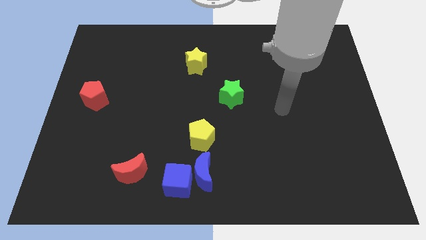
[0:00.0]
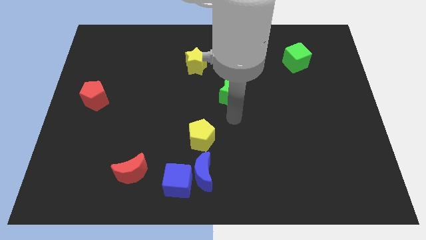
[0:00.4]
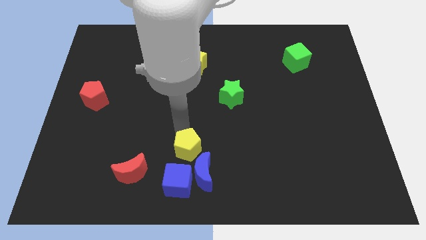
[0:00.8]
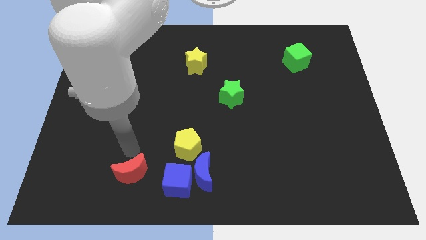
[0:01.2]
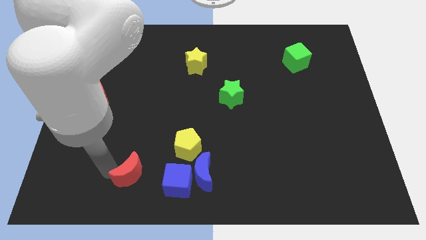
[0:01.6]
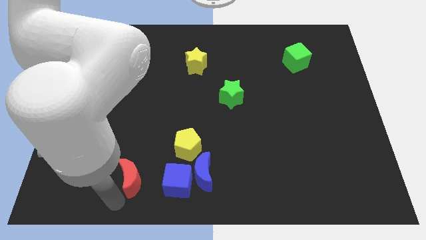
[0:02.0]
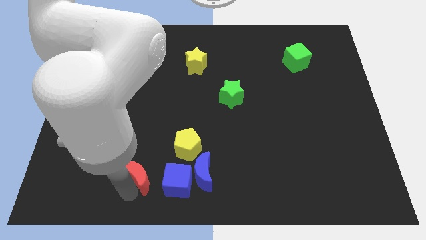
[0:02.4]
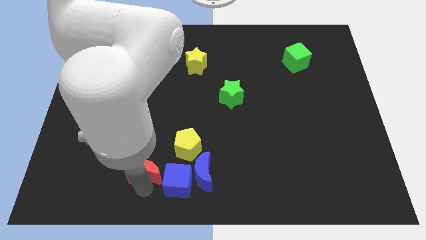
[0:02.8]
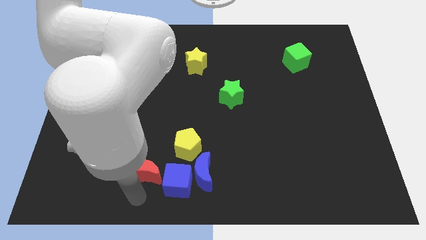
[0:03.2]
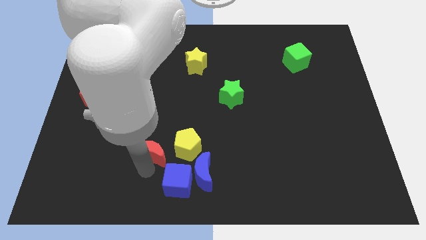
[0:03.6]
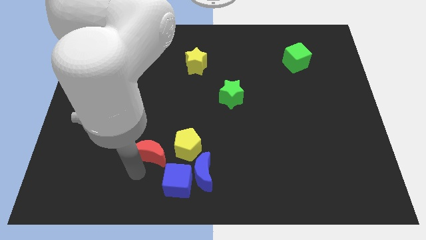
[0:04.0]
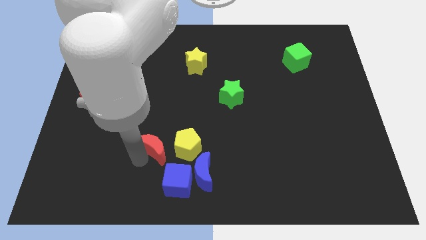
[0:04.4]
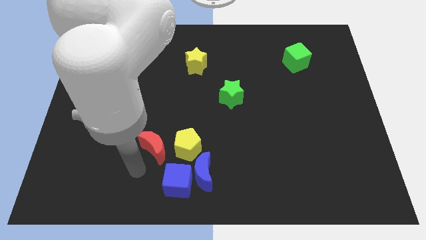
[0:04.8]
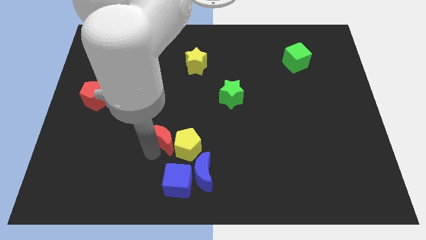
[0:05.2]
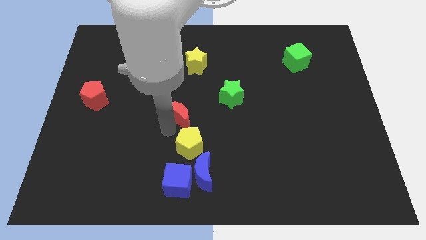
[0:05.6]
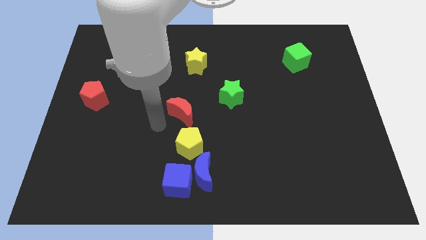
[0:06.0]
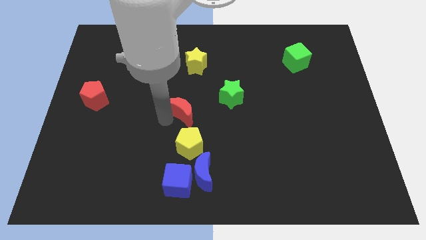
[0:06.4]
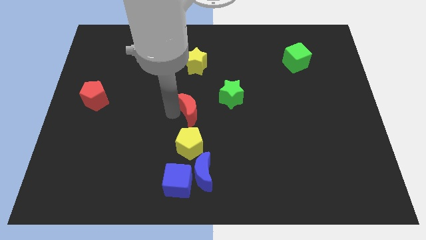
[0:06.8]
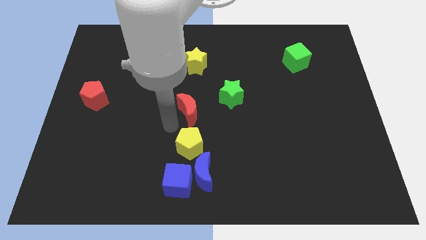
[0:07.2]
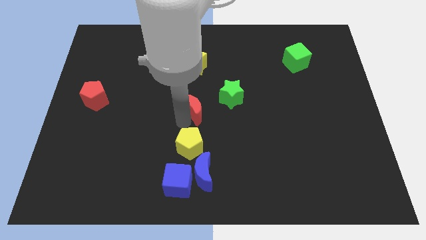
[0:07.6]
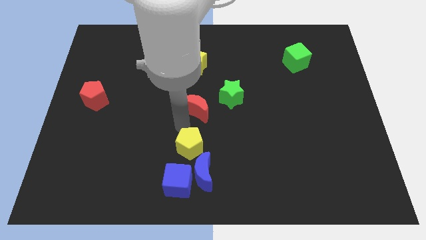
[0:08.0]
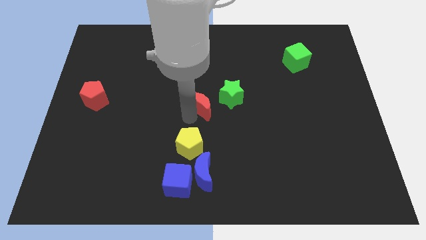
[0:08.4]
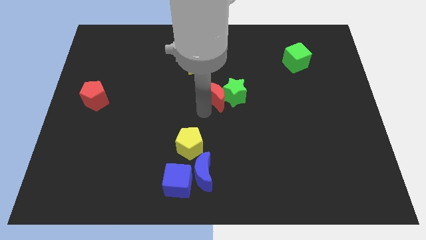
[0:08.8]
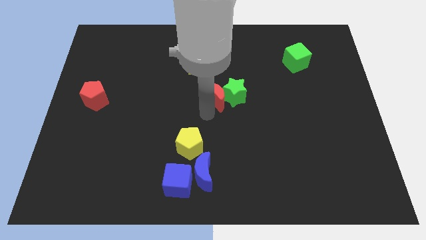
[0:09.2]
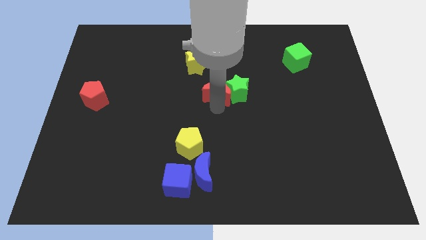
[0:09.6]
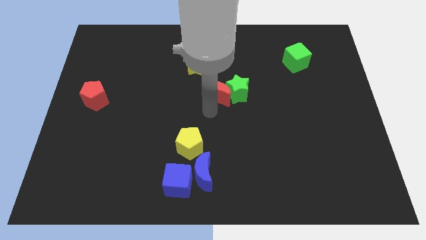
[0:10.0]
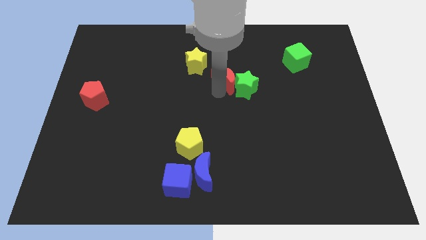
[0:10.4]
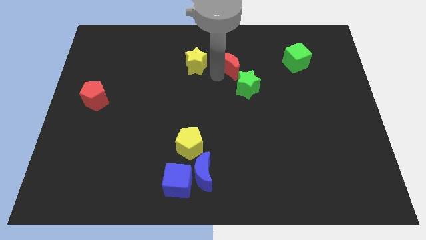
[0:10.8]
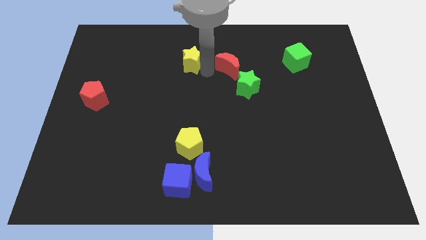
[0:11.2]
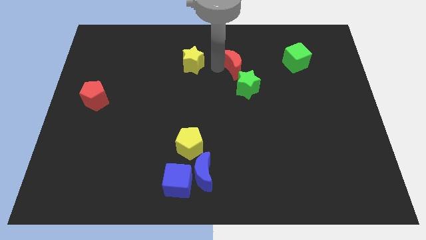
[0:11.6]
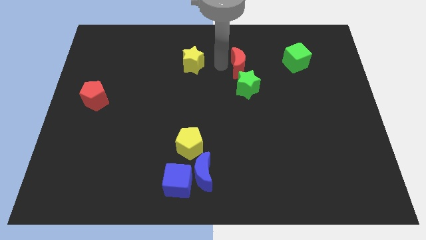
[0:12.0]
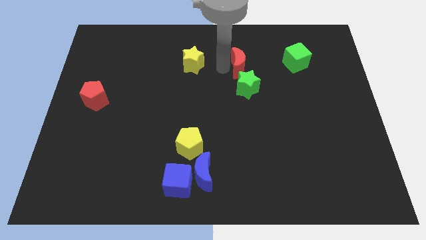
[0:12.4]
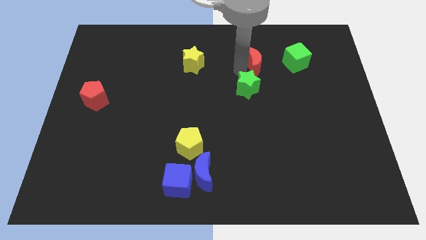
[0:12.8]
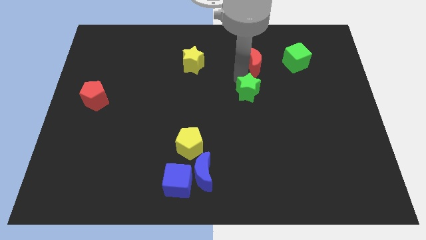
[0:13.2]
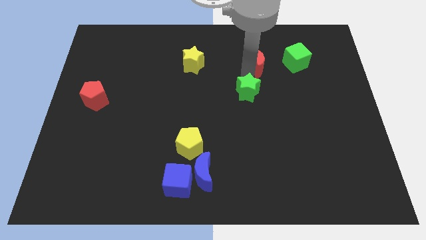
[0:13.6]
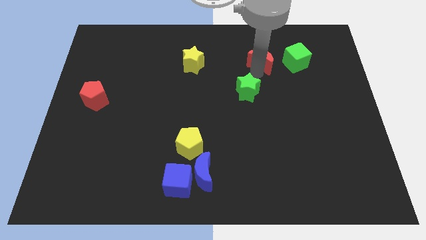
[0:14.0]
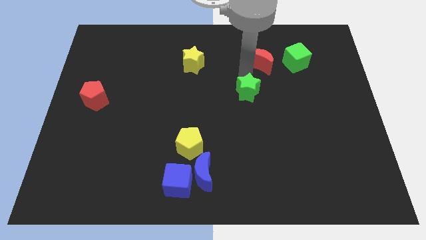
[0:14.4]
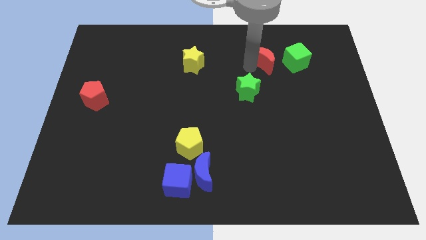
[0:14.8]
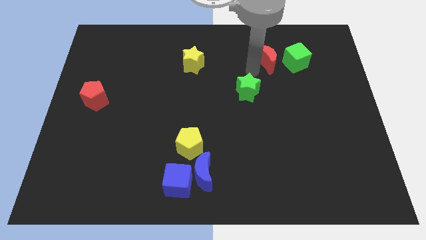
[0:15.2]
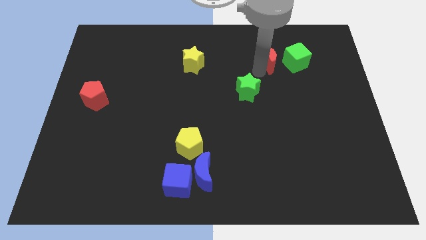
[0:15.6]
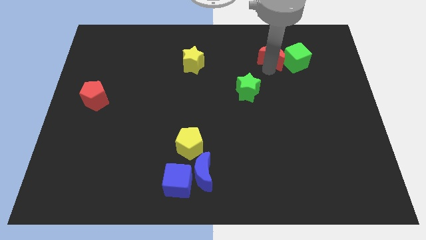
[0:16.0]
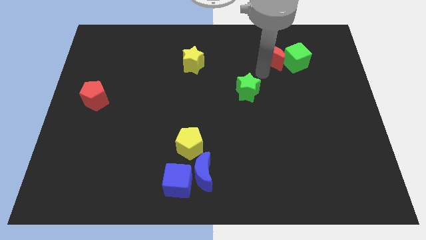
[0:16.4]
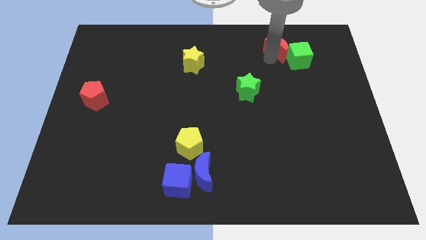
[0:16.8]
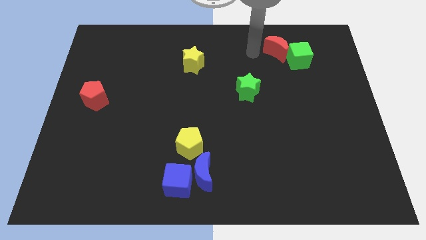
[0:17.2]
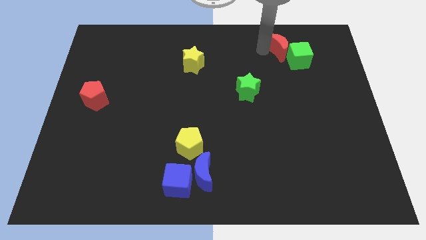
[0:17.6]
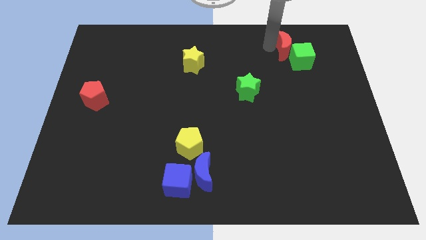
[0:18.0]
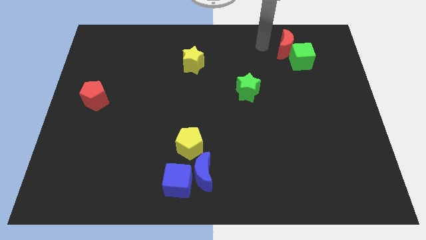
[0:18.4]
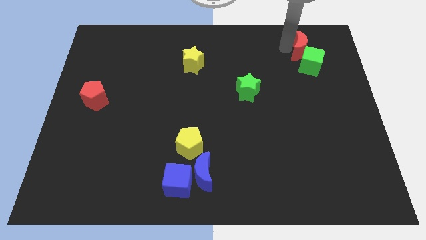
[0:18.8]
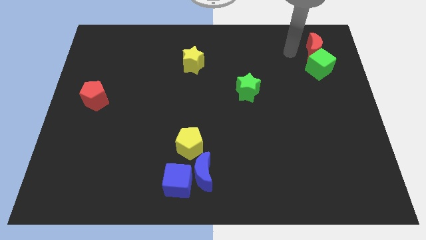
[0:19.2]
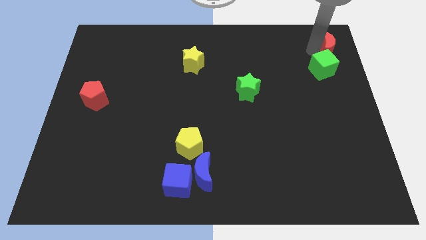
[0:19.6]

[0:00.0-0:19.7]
push the red moon to the top right

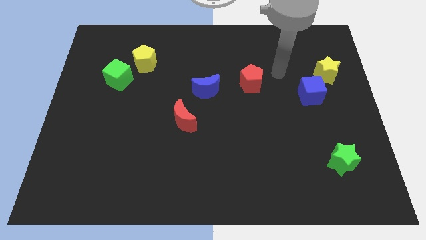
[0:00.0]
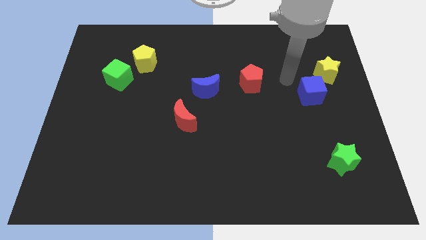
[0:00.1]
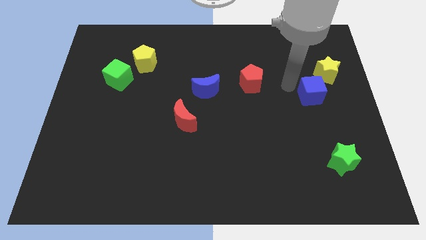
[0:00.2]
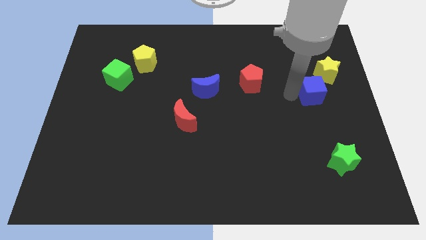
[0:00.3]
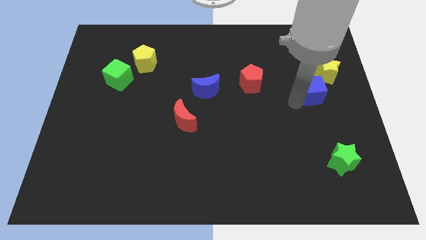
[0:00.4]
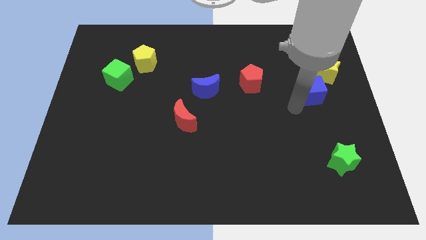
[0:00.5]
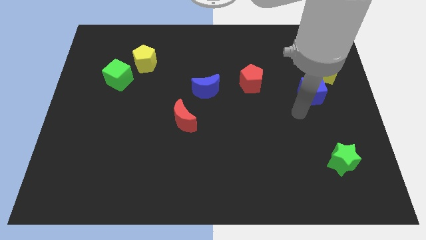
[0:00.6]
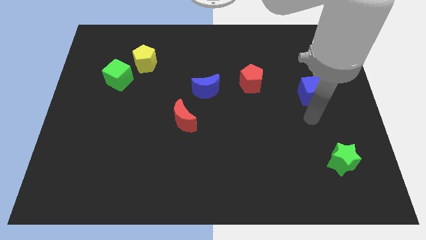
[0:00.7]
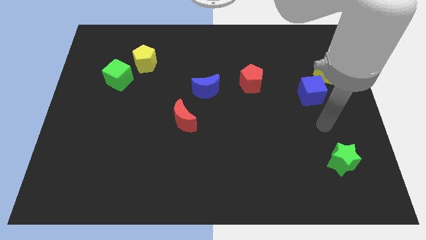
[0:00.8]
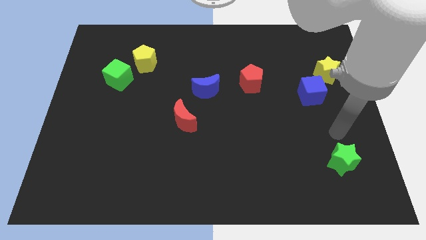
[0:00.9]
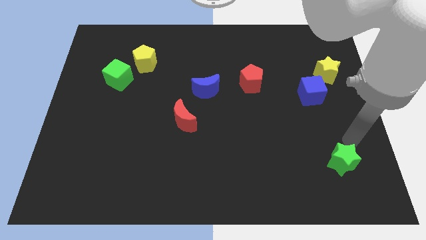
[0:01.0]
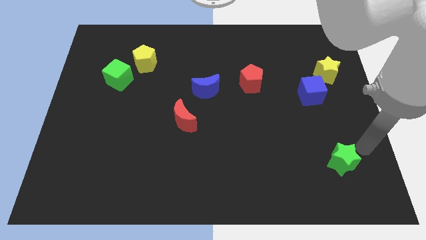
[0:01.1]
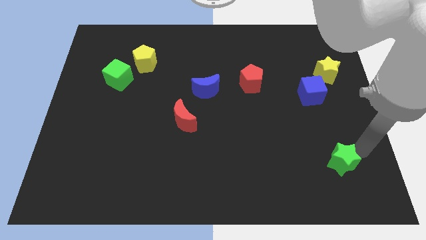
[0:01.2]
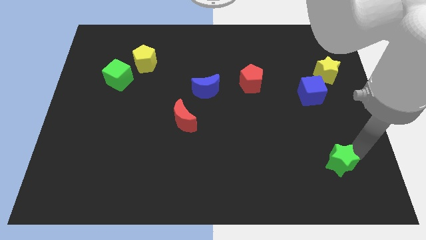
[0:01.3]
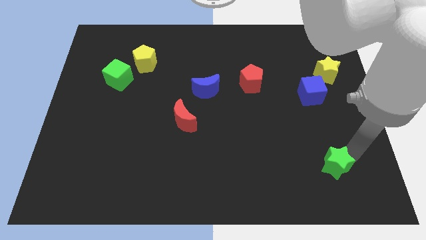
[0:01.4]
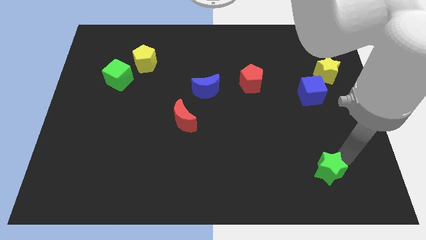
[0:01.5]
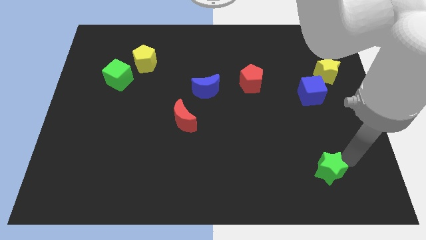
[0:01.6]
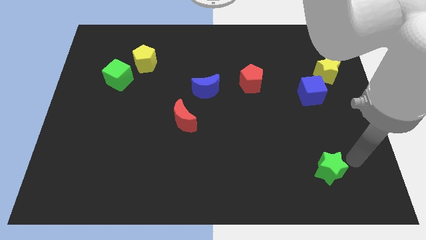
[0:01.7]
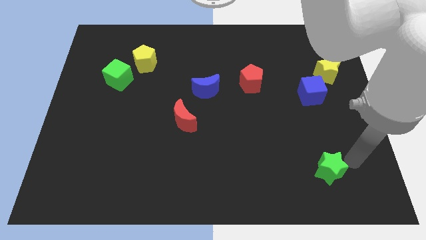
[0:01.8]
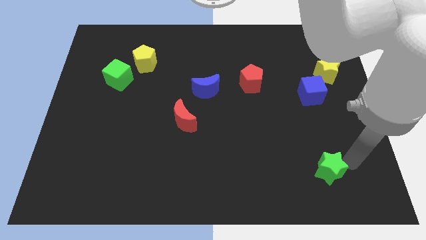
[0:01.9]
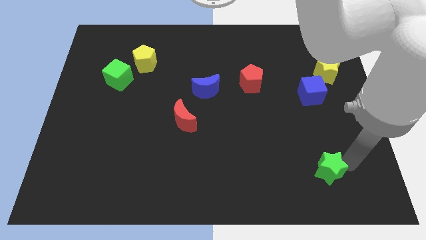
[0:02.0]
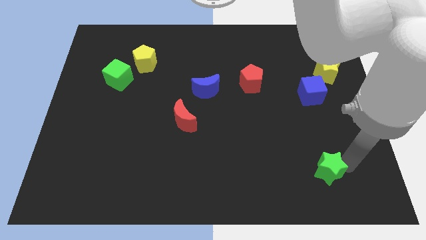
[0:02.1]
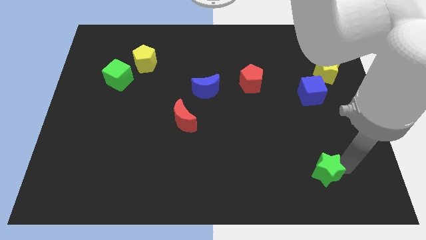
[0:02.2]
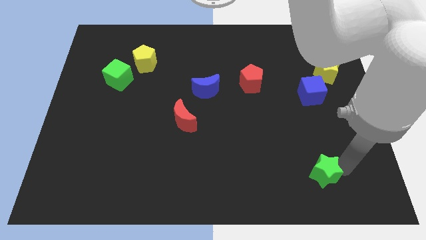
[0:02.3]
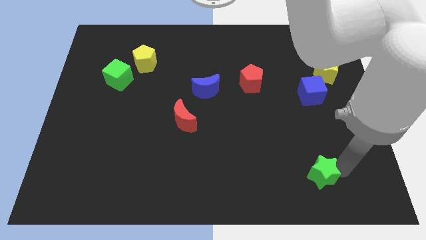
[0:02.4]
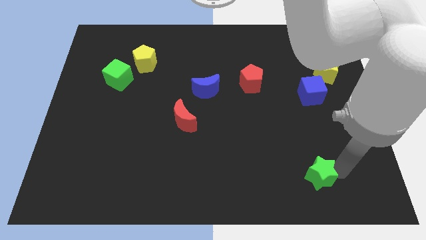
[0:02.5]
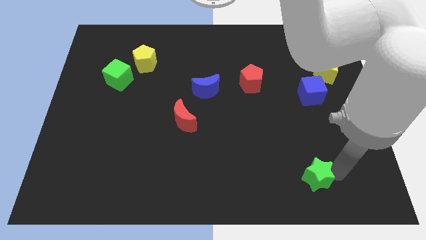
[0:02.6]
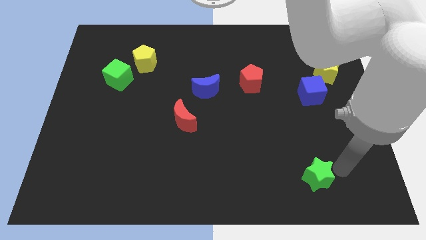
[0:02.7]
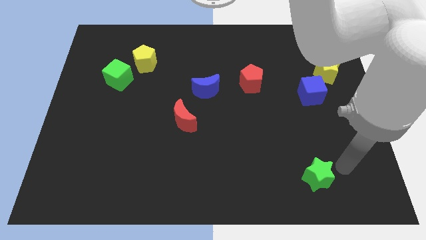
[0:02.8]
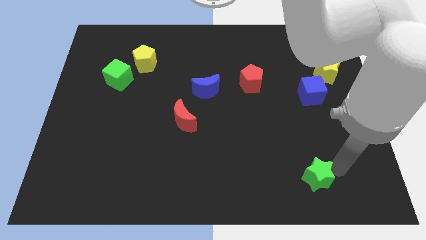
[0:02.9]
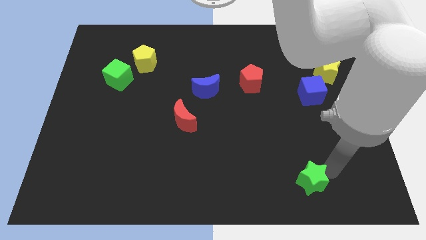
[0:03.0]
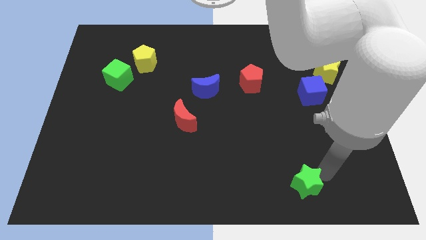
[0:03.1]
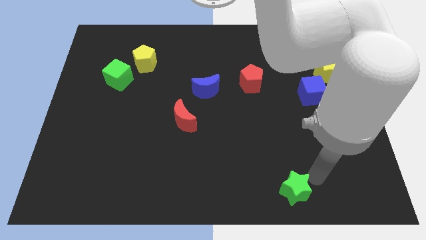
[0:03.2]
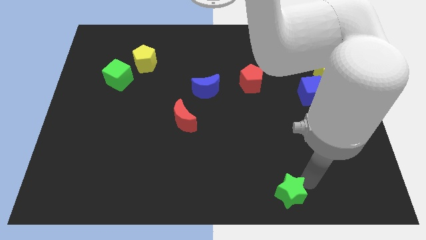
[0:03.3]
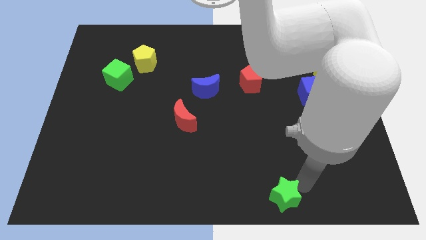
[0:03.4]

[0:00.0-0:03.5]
put the green star to the bottom
